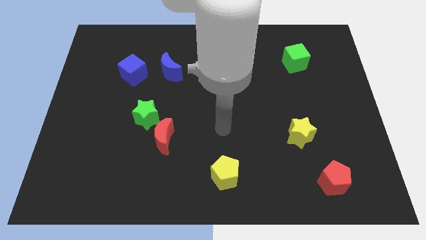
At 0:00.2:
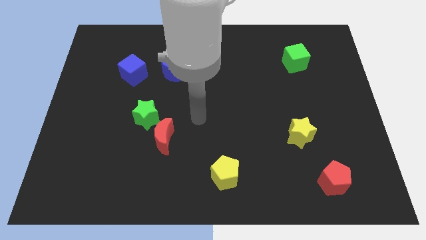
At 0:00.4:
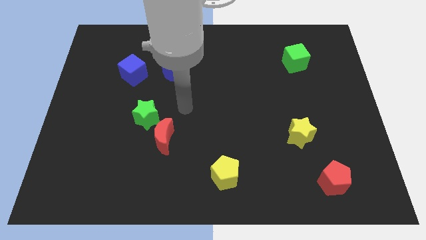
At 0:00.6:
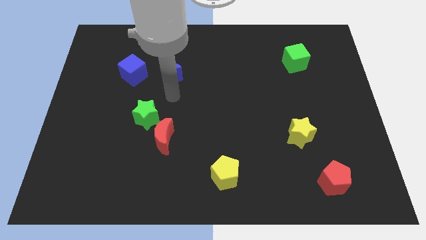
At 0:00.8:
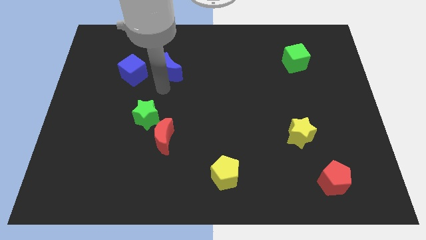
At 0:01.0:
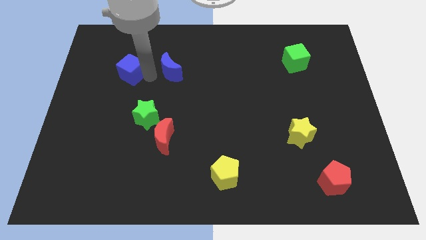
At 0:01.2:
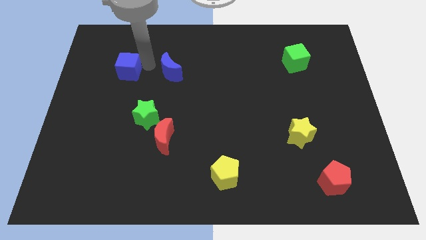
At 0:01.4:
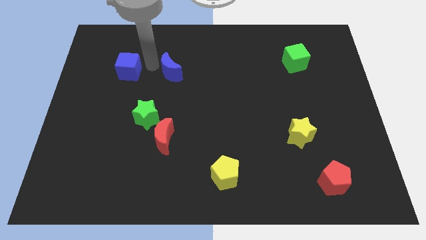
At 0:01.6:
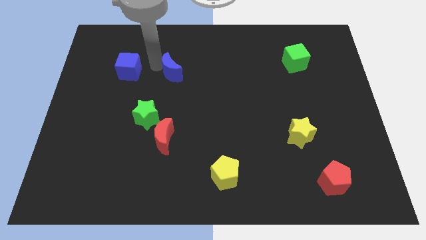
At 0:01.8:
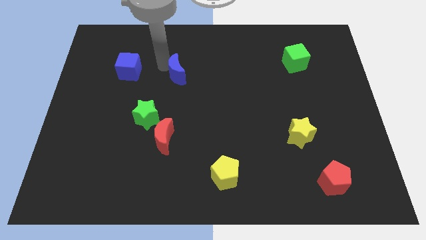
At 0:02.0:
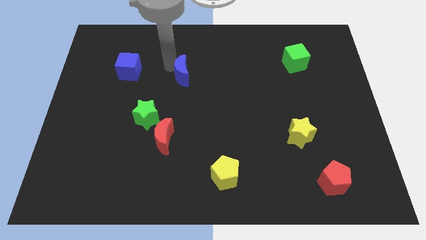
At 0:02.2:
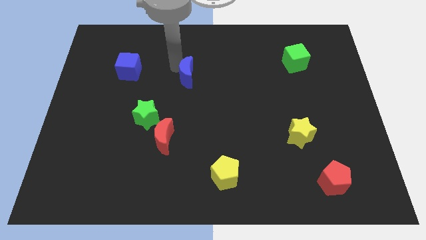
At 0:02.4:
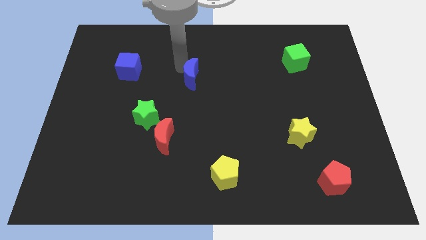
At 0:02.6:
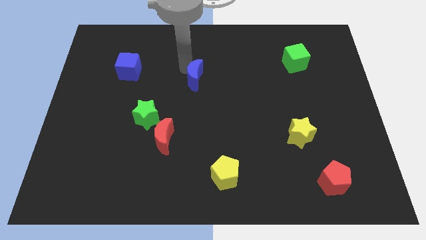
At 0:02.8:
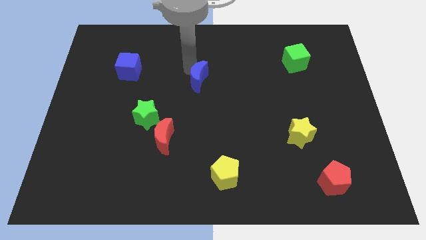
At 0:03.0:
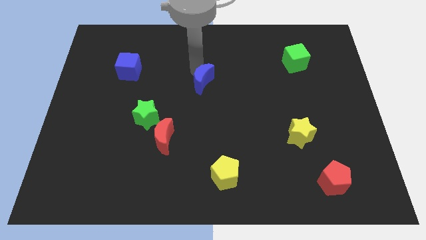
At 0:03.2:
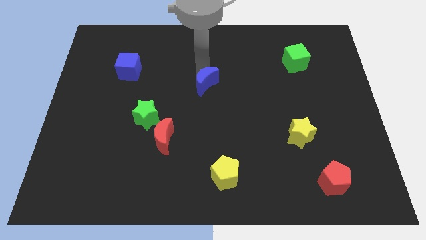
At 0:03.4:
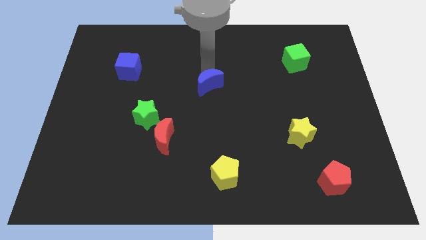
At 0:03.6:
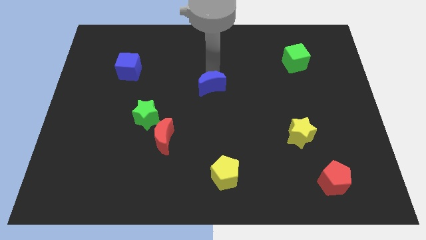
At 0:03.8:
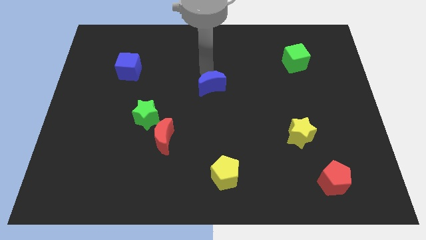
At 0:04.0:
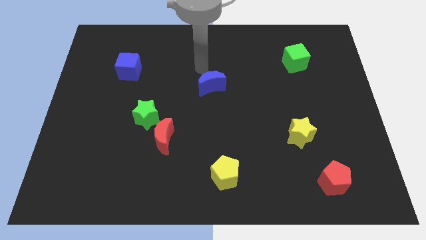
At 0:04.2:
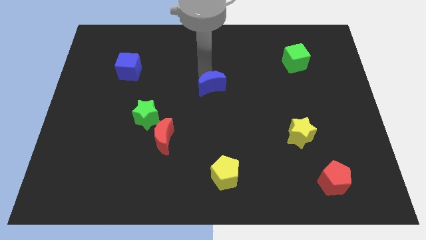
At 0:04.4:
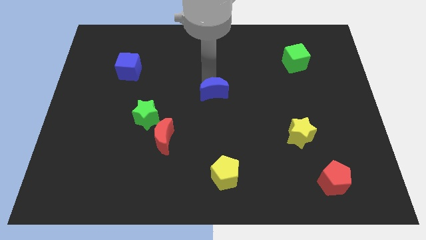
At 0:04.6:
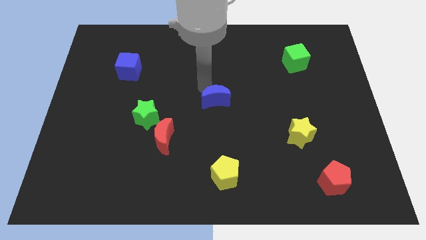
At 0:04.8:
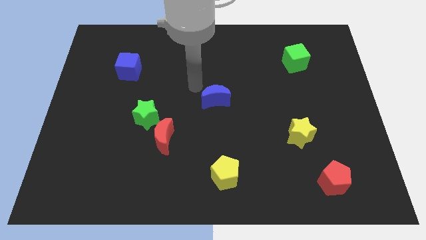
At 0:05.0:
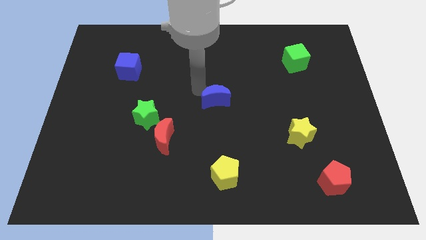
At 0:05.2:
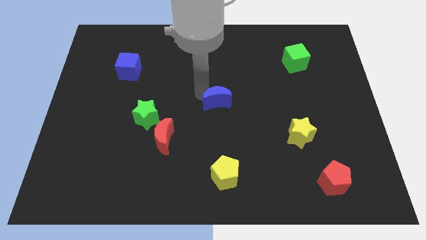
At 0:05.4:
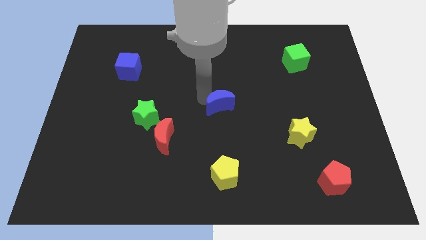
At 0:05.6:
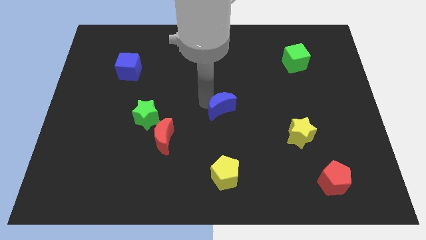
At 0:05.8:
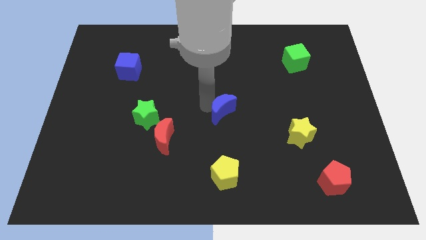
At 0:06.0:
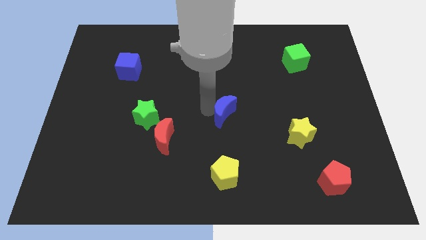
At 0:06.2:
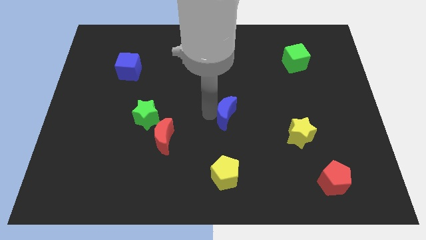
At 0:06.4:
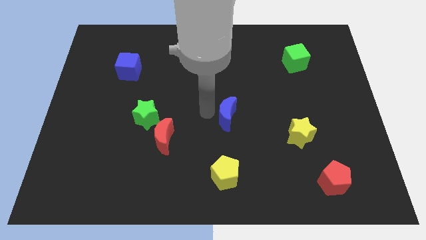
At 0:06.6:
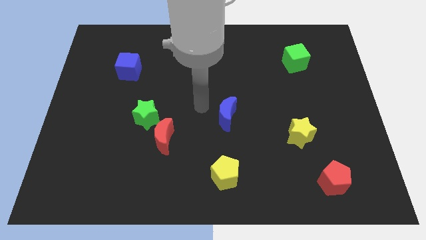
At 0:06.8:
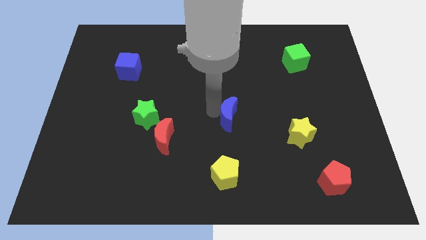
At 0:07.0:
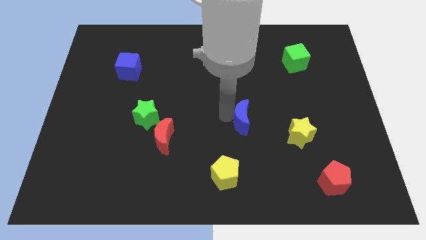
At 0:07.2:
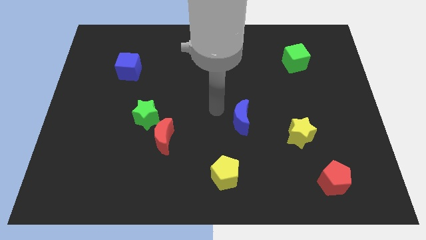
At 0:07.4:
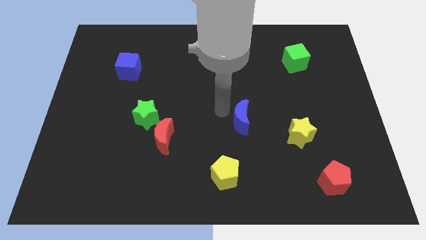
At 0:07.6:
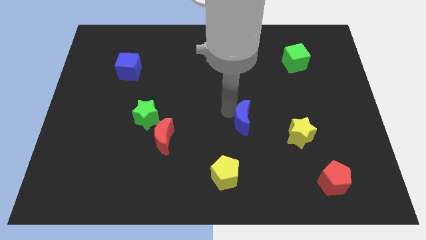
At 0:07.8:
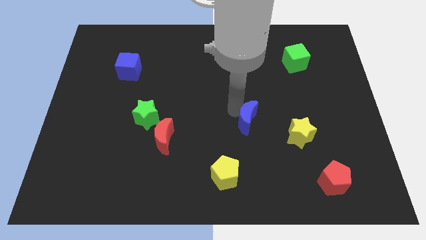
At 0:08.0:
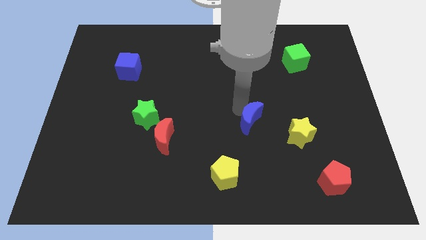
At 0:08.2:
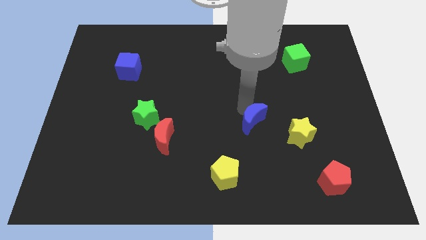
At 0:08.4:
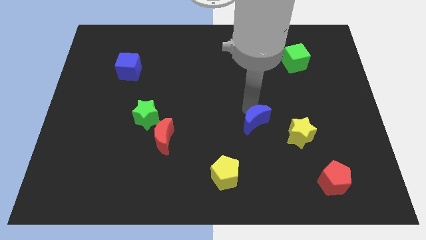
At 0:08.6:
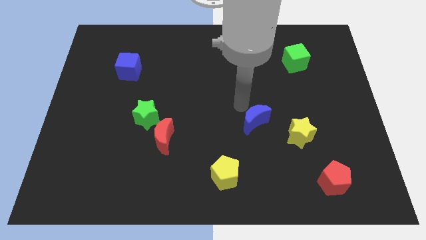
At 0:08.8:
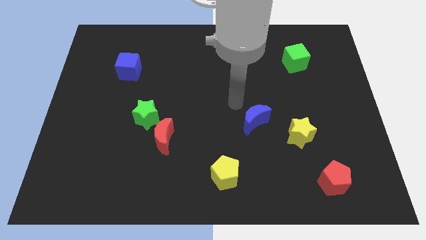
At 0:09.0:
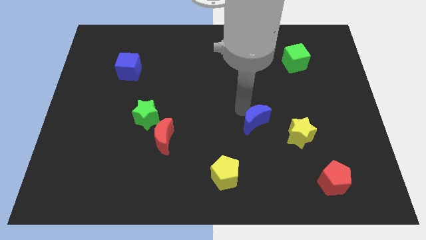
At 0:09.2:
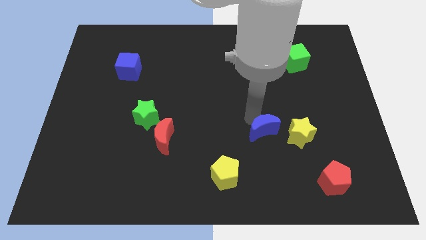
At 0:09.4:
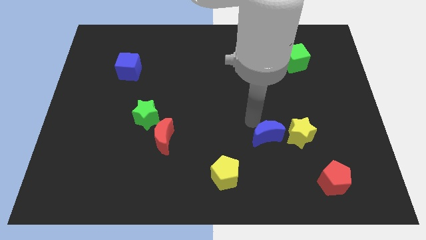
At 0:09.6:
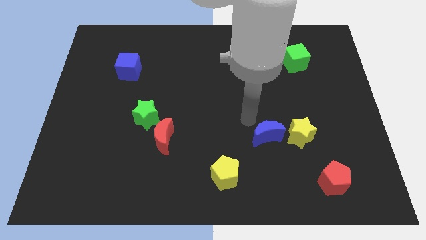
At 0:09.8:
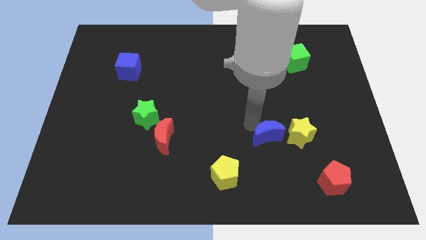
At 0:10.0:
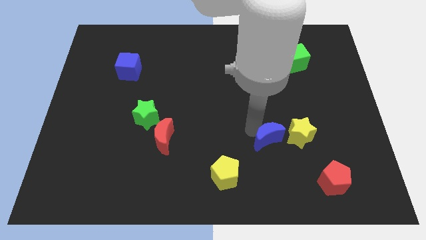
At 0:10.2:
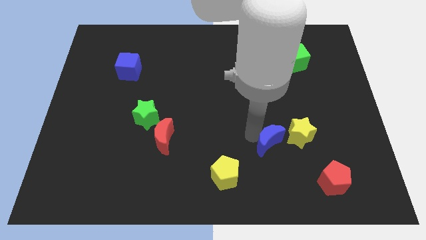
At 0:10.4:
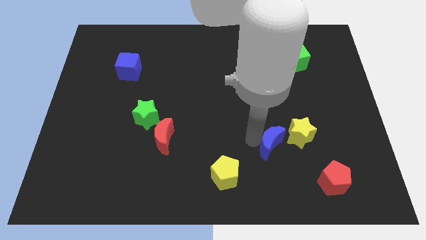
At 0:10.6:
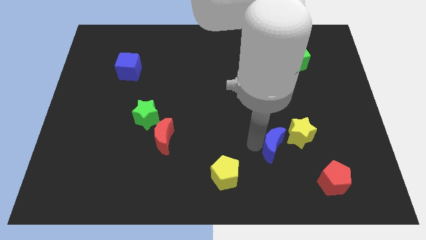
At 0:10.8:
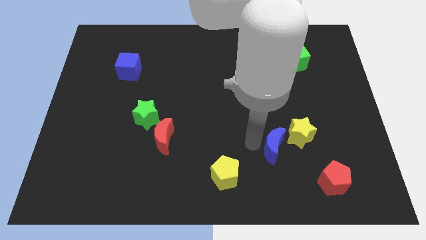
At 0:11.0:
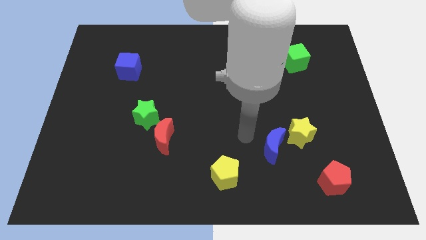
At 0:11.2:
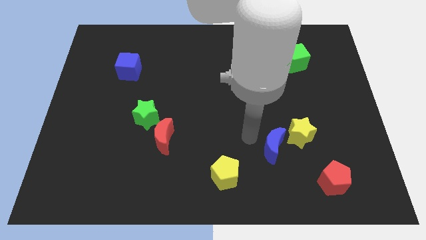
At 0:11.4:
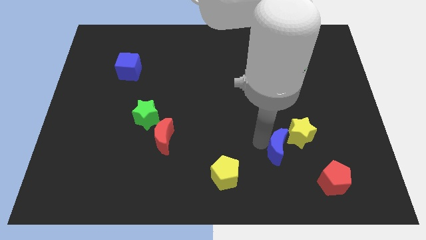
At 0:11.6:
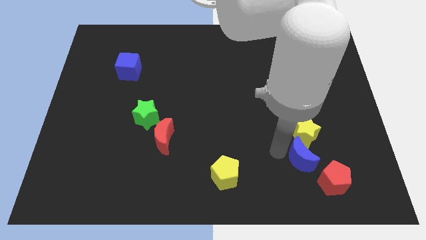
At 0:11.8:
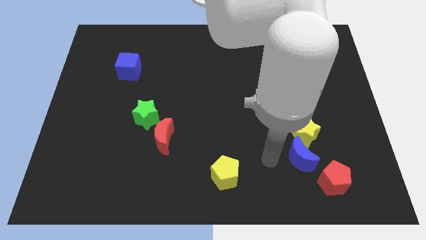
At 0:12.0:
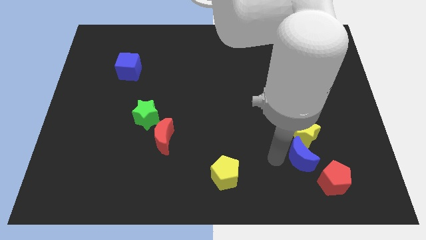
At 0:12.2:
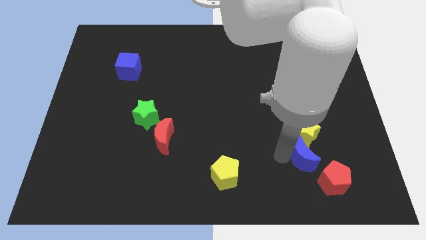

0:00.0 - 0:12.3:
move the blue moon diagonally down and to the right of the yellow star

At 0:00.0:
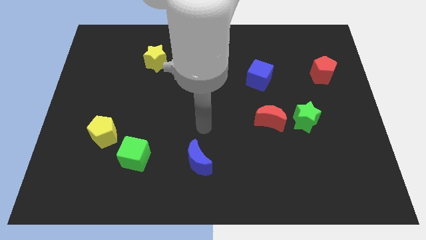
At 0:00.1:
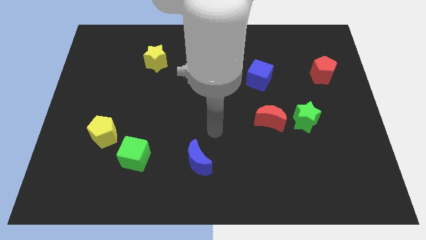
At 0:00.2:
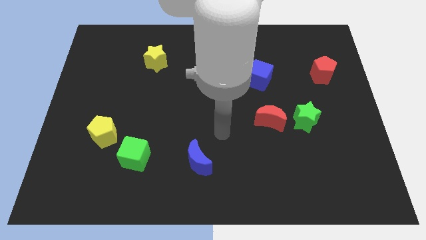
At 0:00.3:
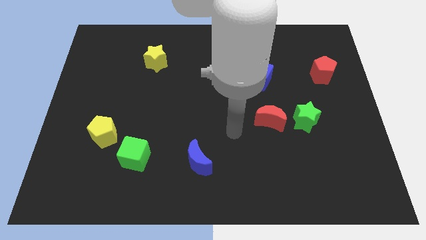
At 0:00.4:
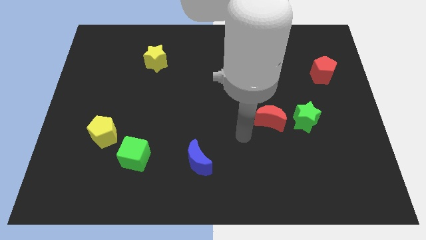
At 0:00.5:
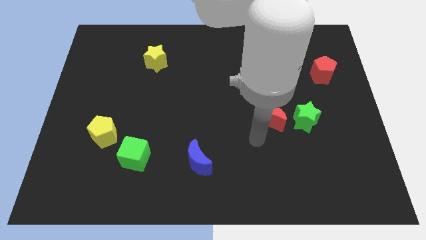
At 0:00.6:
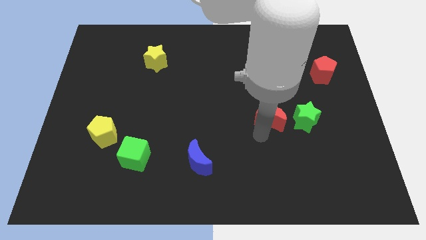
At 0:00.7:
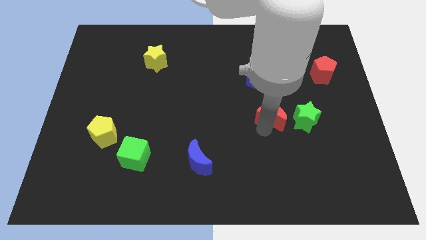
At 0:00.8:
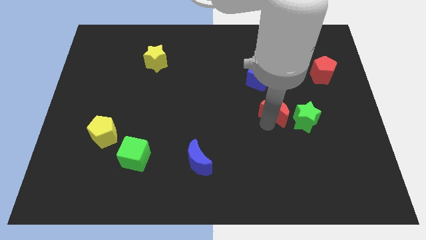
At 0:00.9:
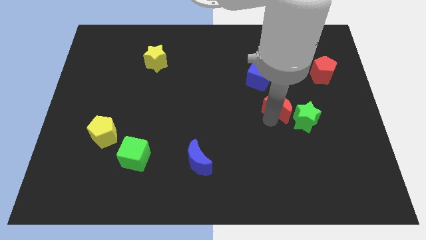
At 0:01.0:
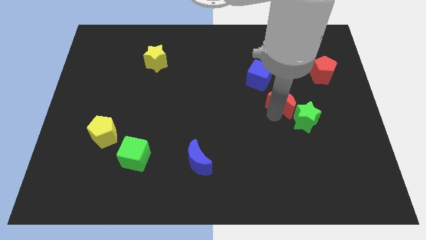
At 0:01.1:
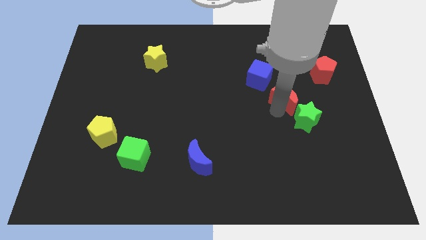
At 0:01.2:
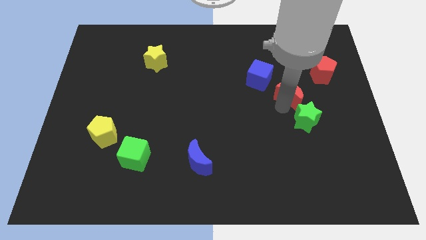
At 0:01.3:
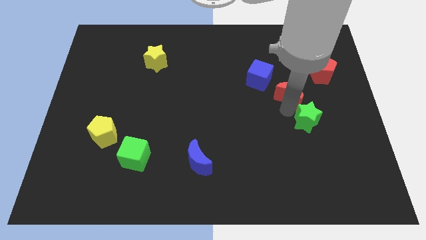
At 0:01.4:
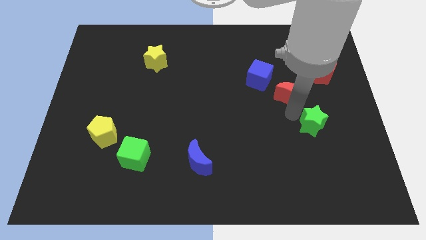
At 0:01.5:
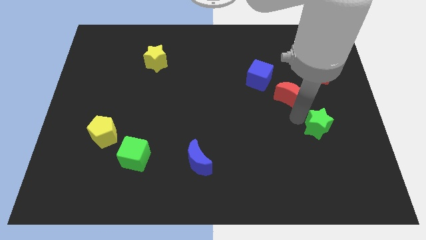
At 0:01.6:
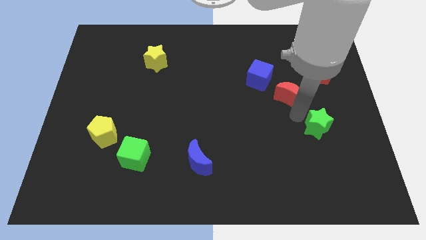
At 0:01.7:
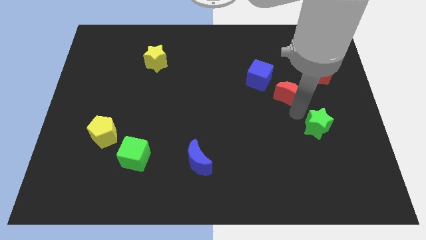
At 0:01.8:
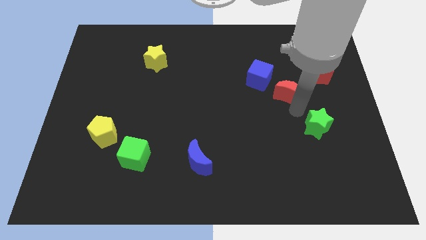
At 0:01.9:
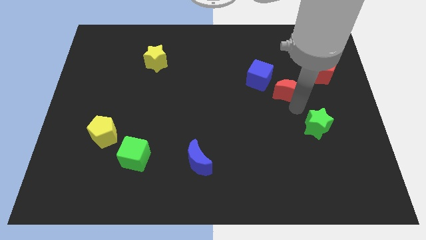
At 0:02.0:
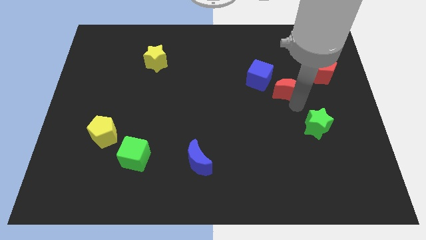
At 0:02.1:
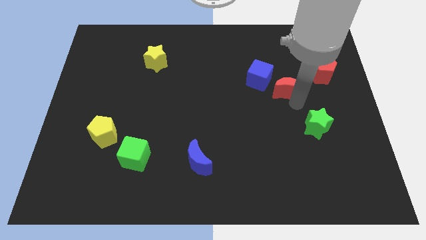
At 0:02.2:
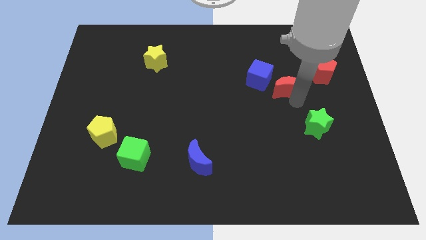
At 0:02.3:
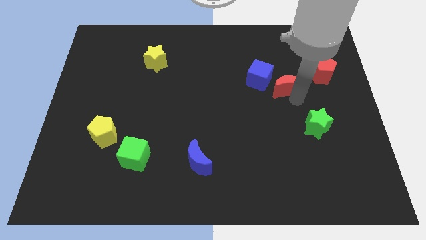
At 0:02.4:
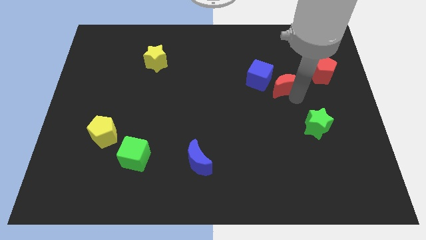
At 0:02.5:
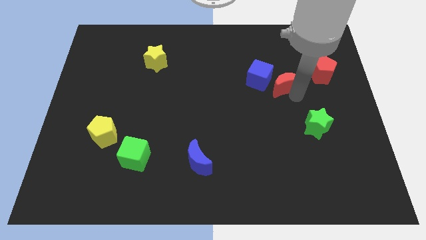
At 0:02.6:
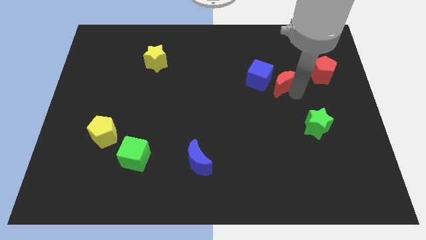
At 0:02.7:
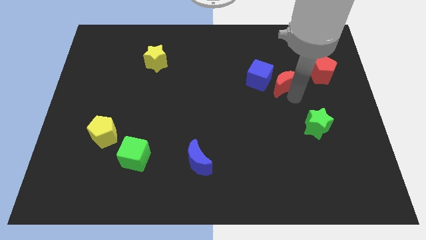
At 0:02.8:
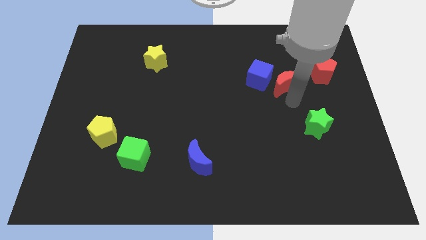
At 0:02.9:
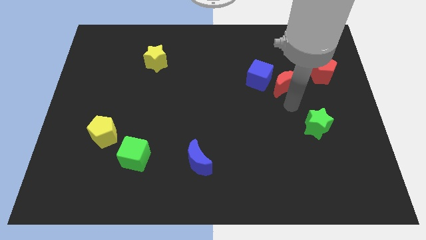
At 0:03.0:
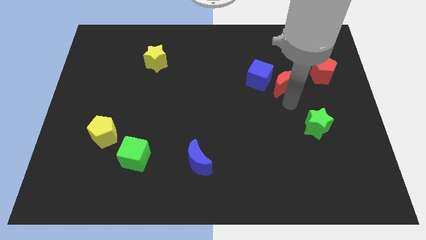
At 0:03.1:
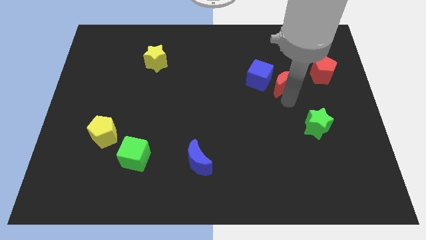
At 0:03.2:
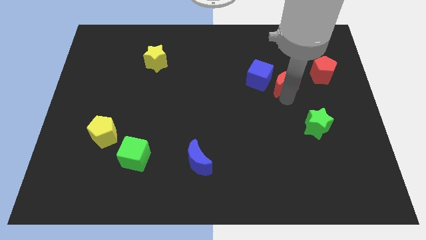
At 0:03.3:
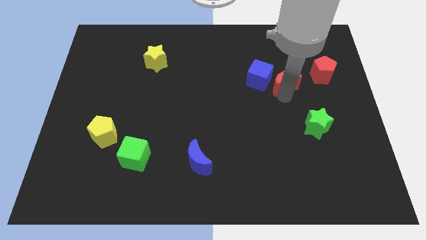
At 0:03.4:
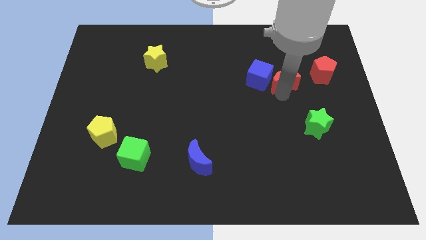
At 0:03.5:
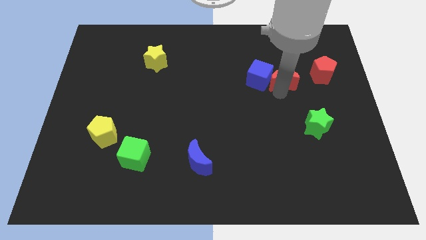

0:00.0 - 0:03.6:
slide the red moon to the top right of the blue cube
